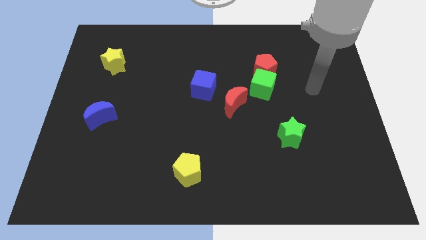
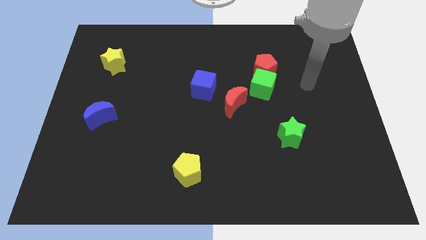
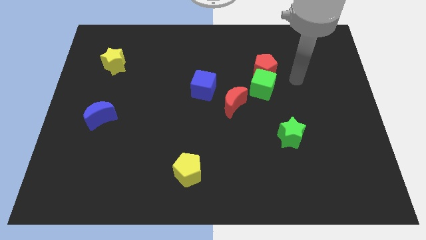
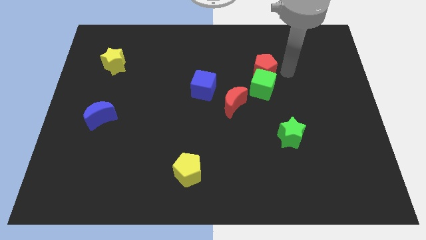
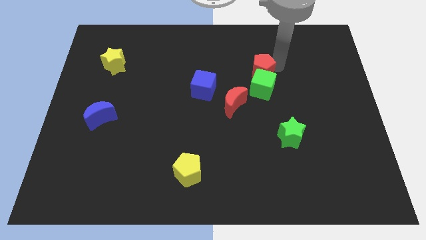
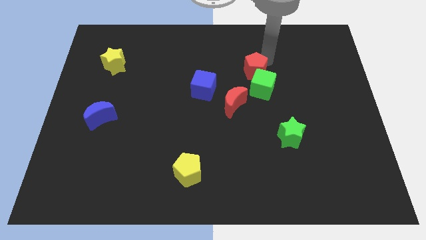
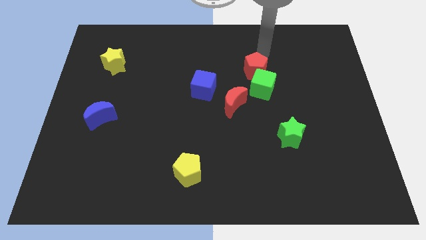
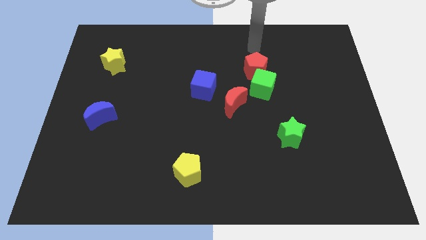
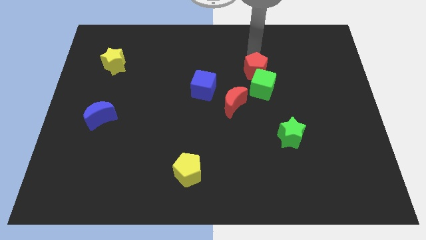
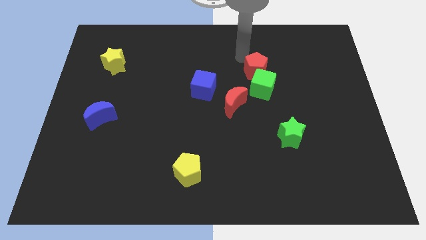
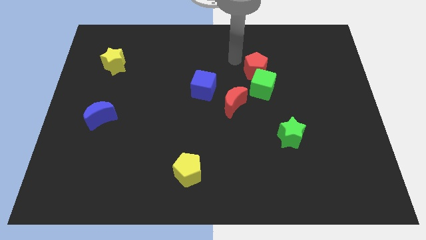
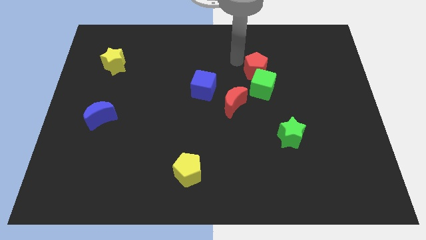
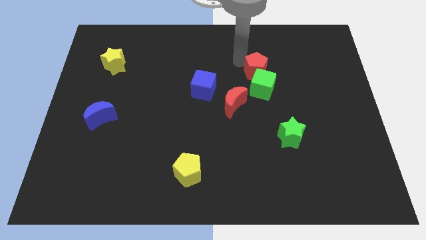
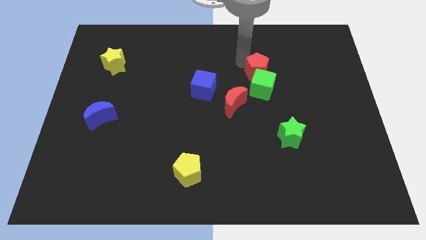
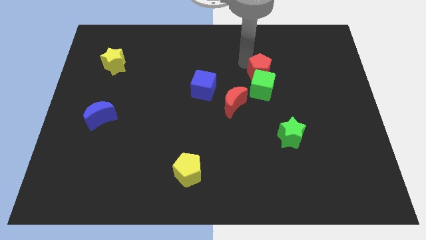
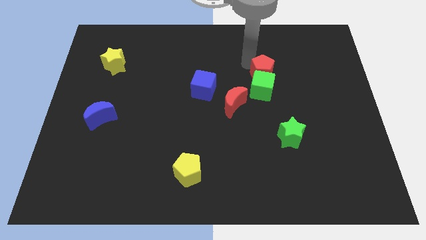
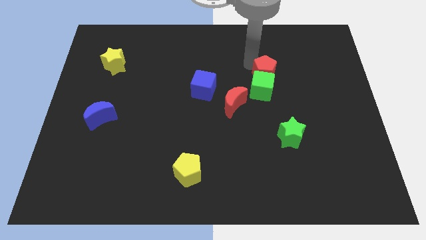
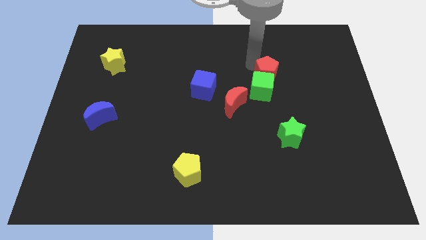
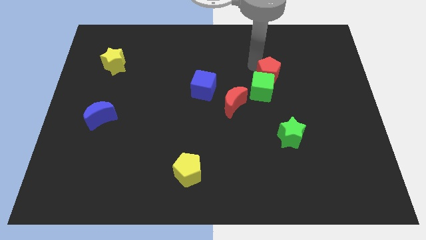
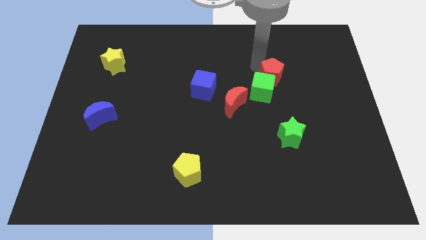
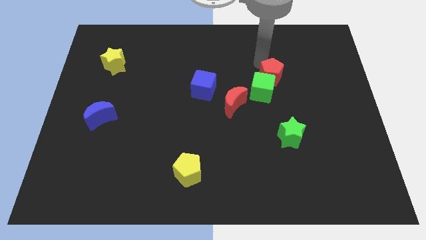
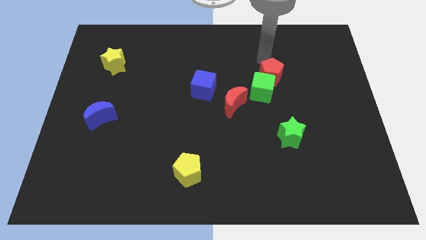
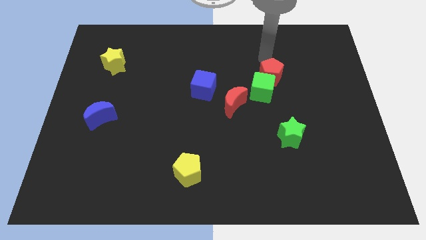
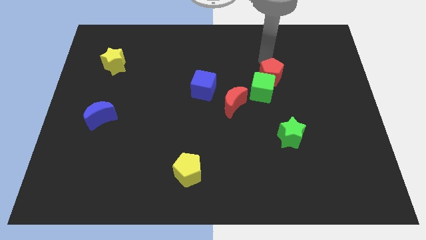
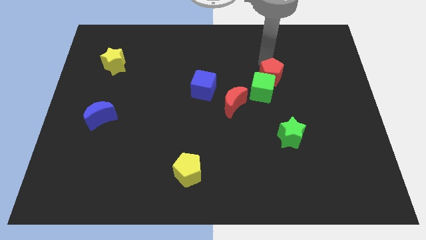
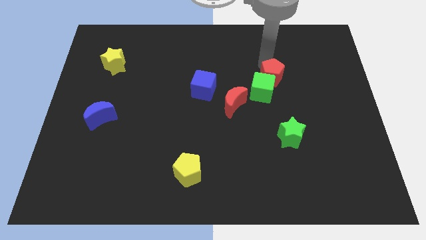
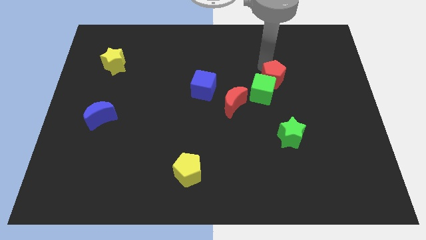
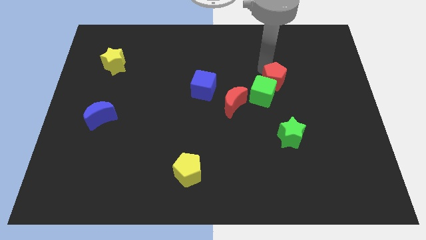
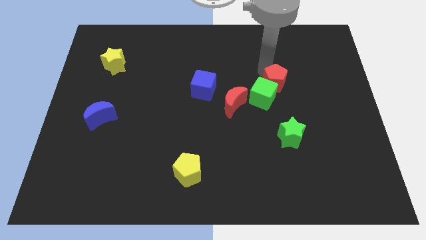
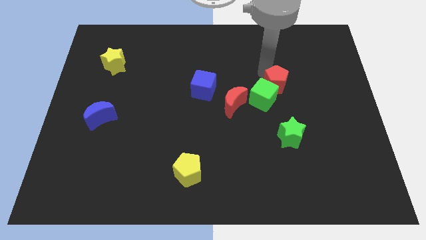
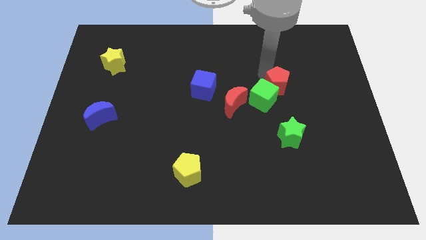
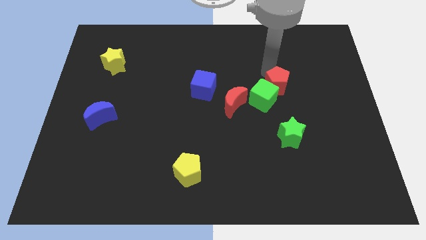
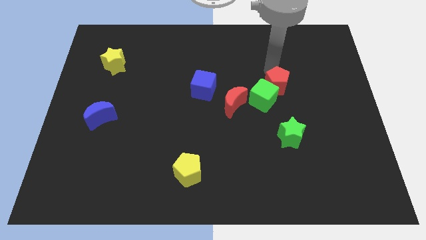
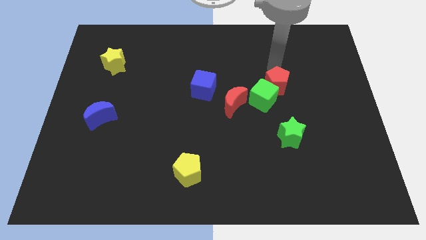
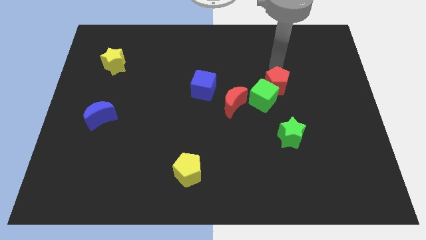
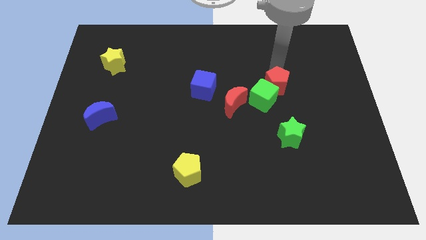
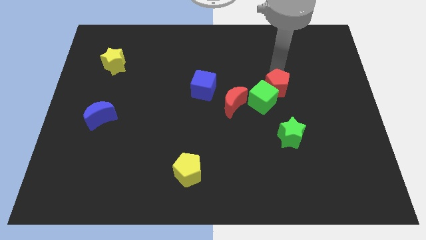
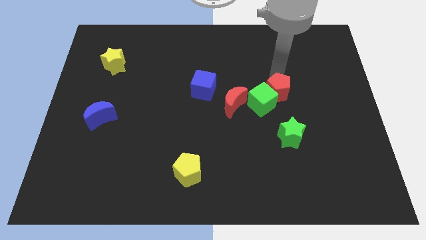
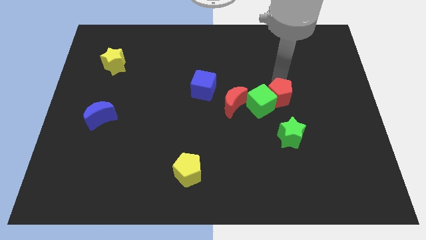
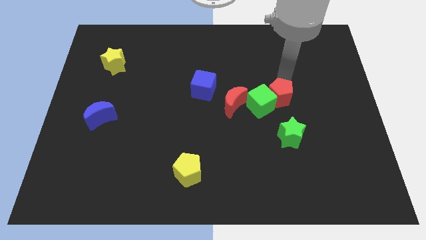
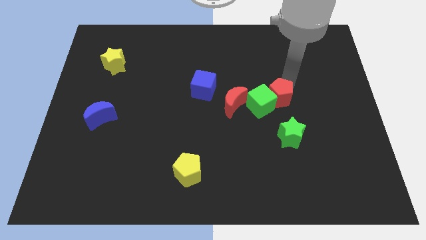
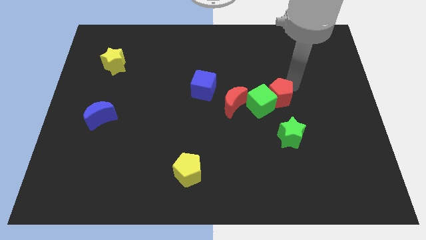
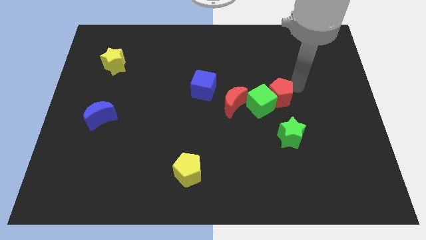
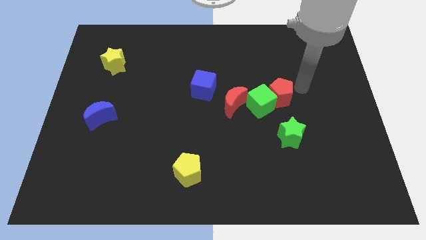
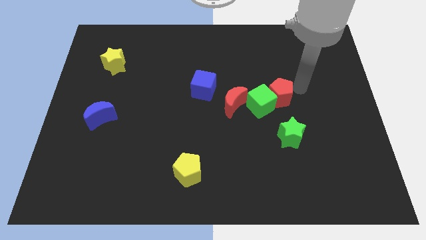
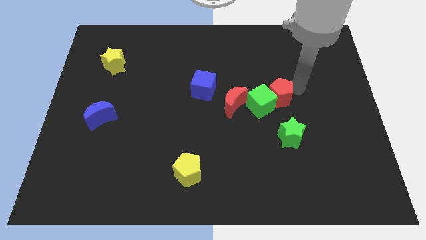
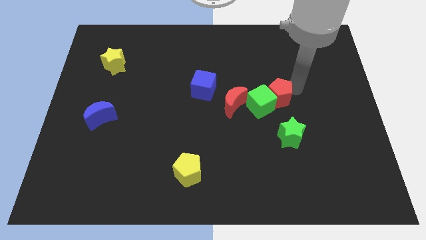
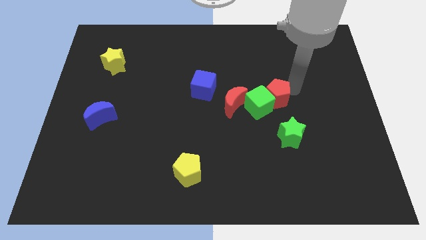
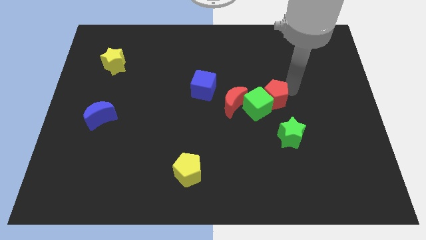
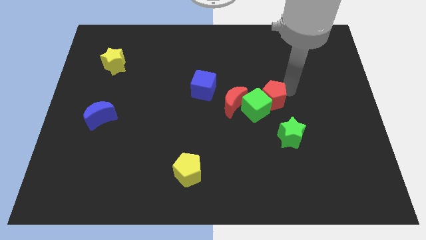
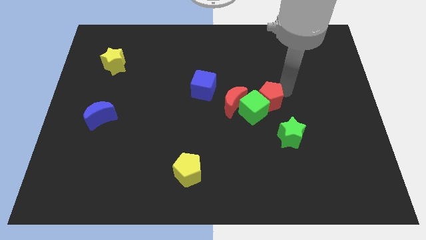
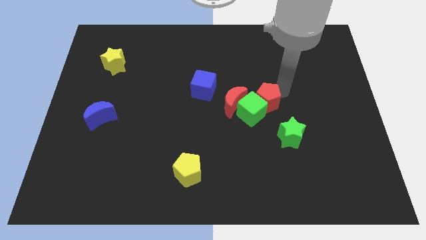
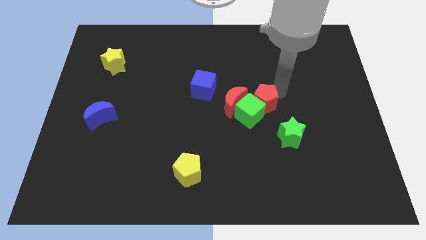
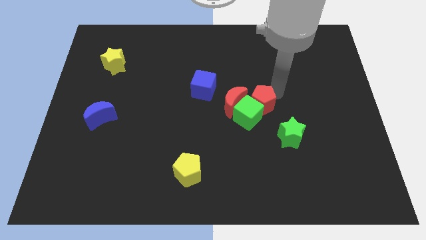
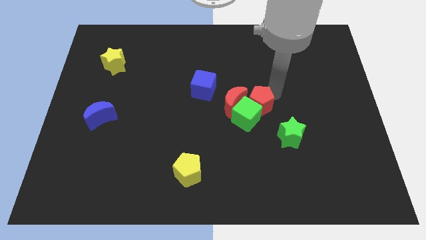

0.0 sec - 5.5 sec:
slightly slide the red pentagon downwards and left
